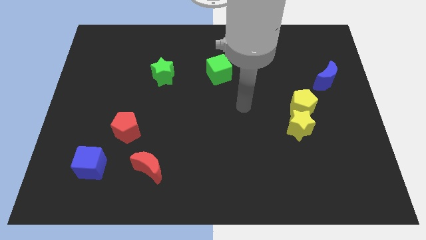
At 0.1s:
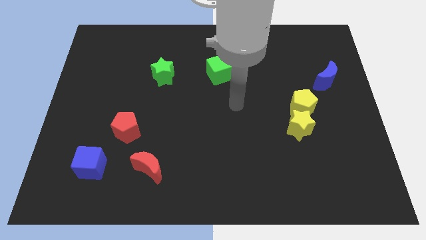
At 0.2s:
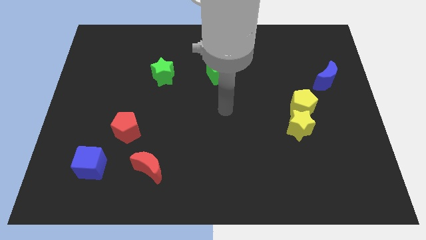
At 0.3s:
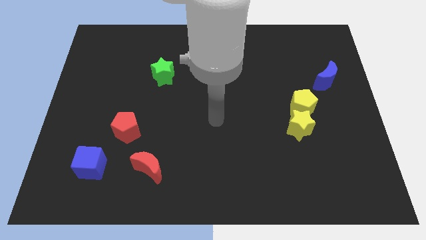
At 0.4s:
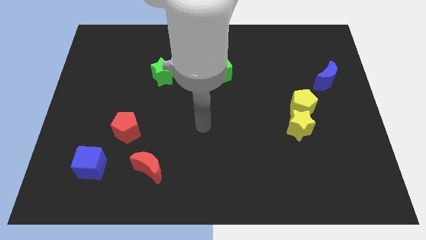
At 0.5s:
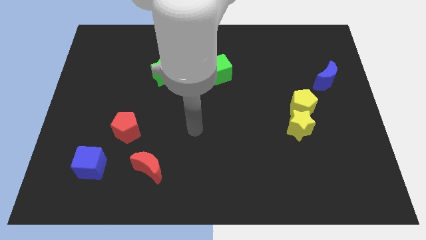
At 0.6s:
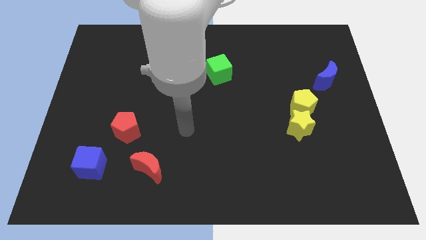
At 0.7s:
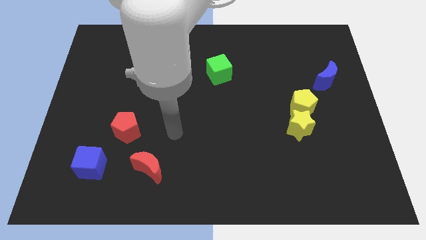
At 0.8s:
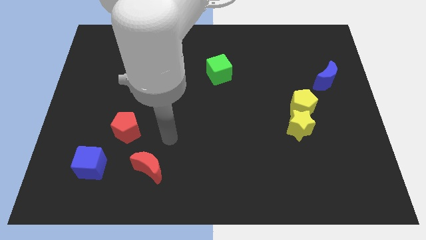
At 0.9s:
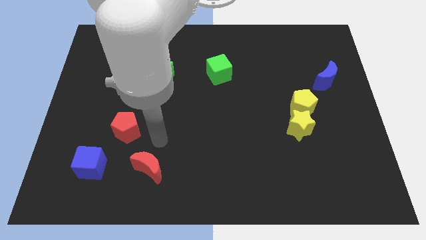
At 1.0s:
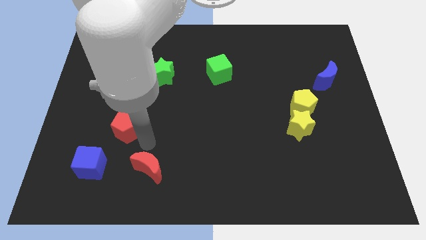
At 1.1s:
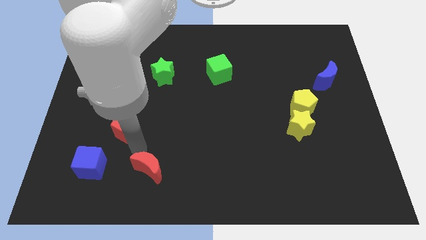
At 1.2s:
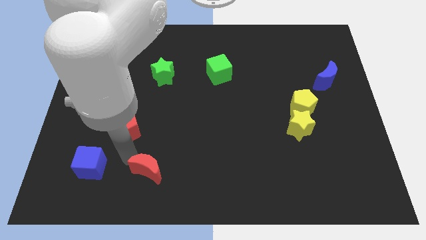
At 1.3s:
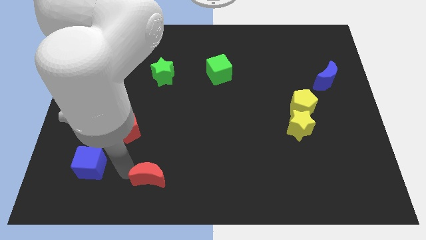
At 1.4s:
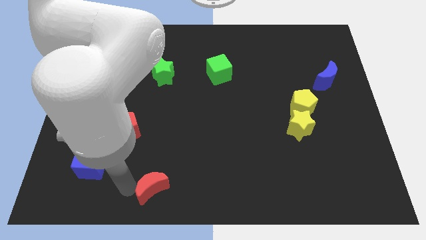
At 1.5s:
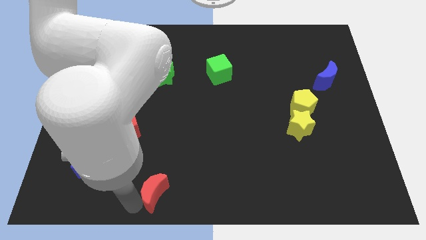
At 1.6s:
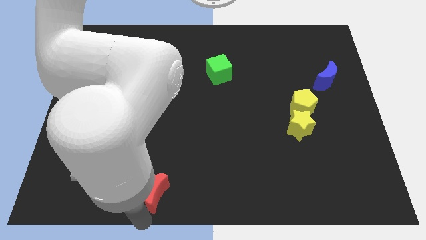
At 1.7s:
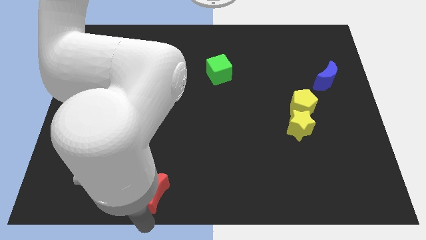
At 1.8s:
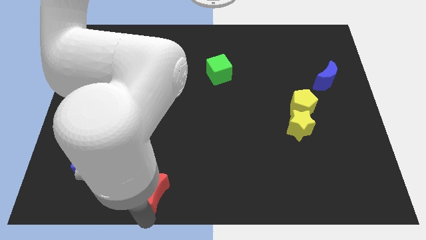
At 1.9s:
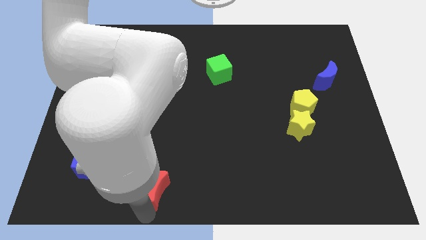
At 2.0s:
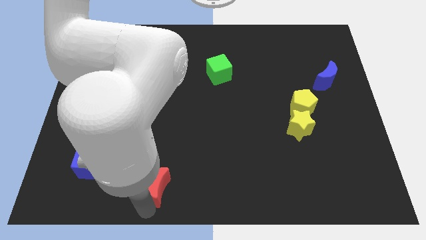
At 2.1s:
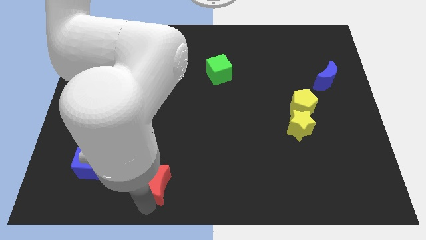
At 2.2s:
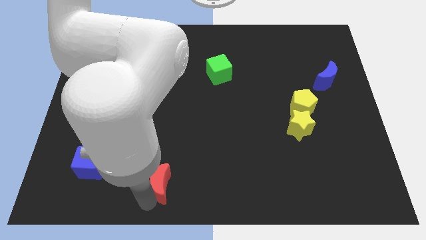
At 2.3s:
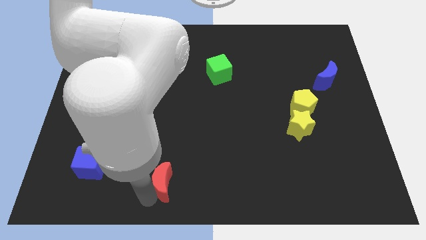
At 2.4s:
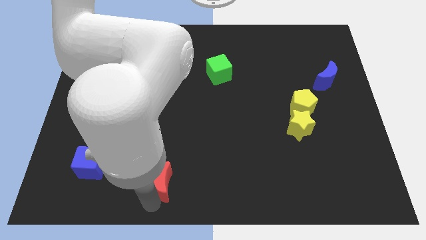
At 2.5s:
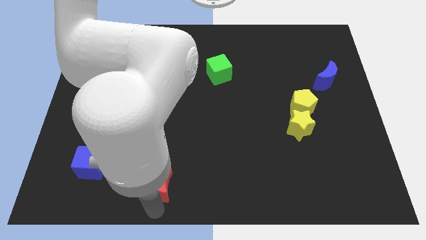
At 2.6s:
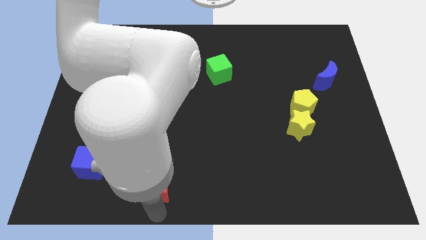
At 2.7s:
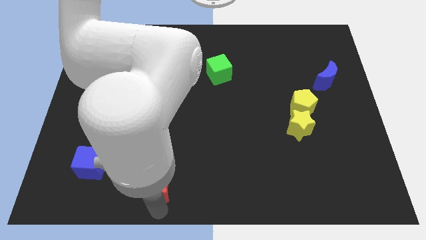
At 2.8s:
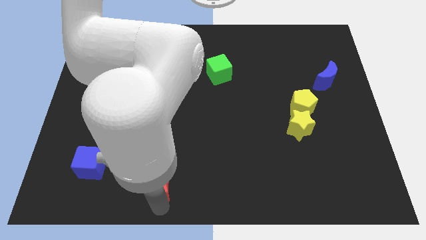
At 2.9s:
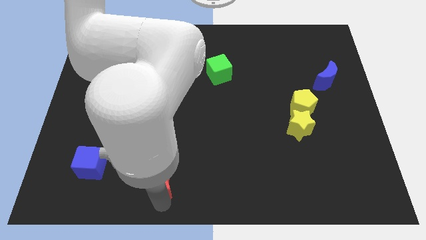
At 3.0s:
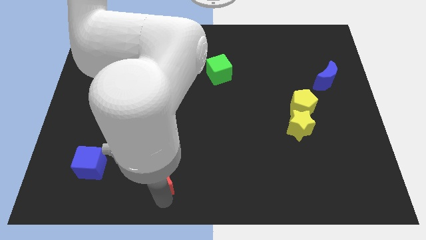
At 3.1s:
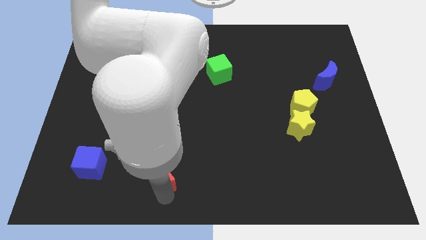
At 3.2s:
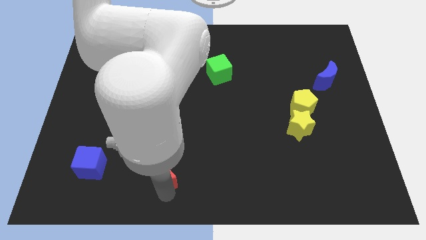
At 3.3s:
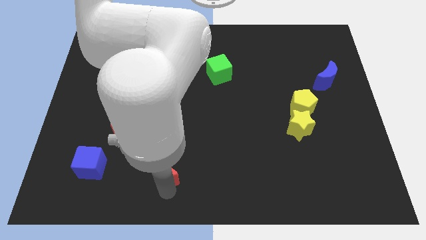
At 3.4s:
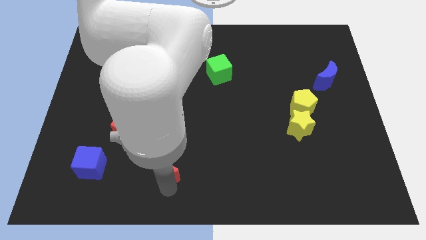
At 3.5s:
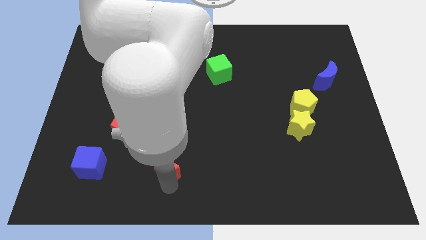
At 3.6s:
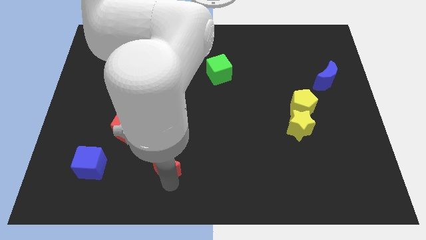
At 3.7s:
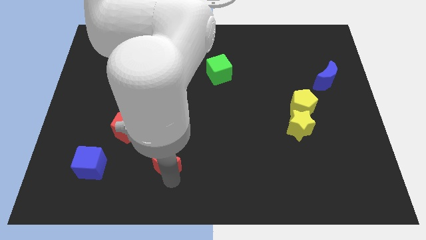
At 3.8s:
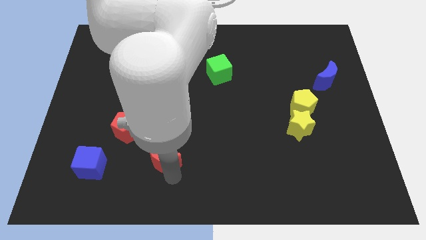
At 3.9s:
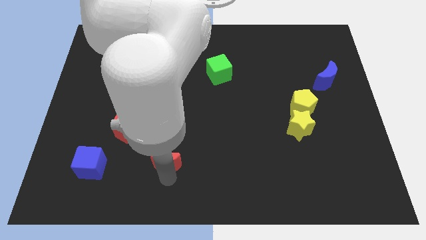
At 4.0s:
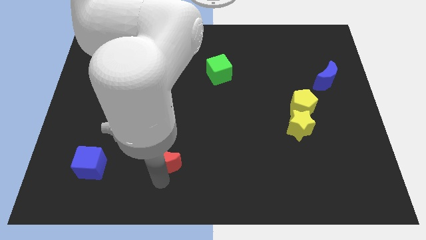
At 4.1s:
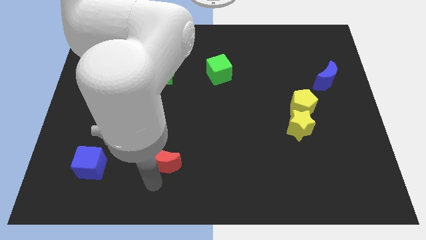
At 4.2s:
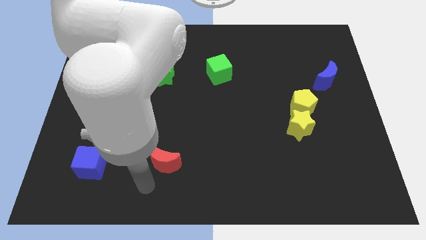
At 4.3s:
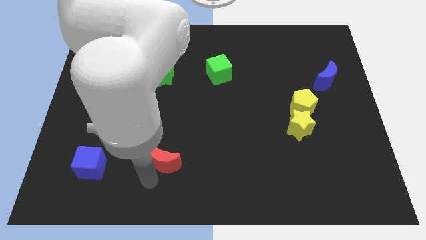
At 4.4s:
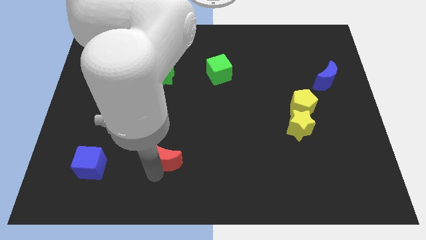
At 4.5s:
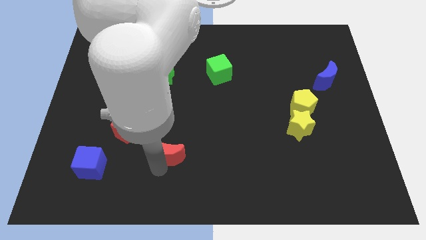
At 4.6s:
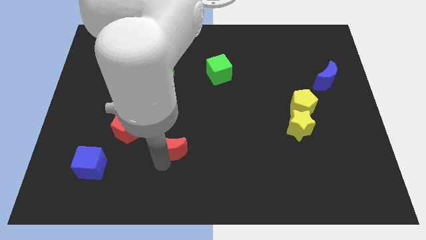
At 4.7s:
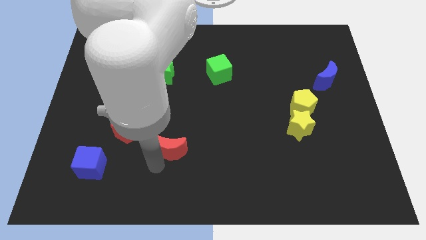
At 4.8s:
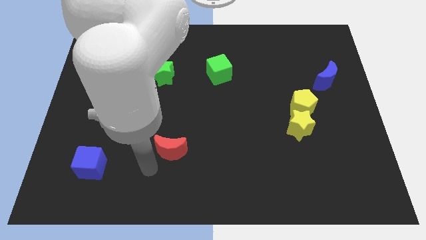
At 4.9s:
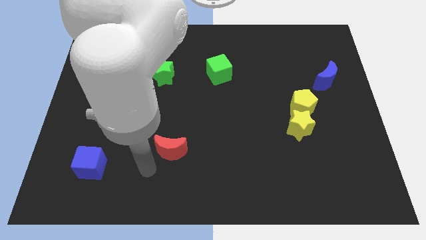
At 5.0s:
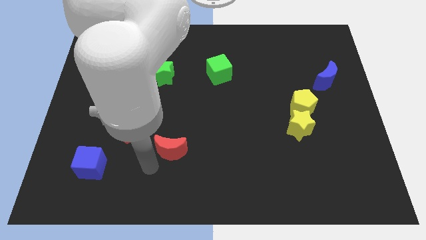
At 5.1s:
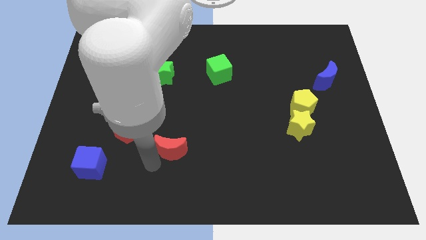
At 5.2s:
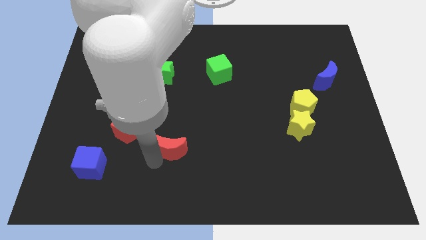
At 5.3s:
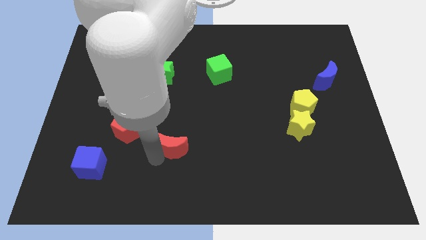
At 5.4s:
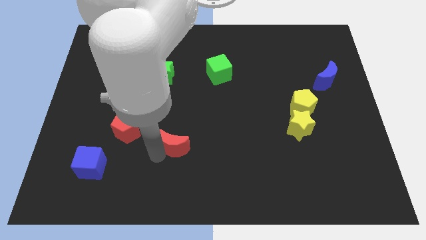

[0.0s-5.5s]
move the red moon diagonally upwards and right somewhat

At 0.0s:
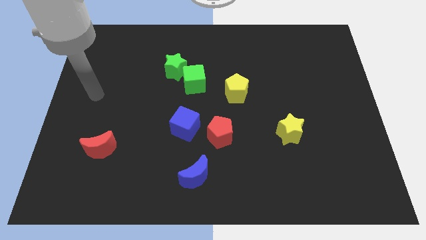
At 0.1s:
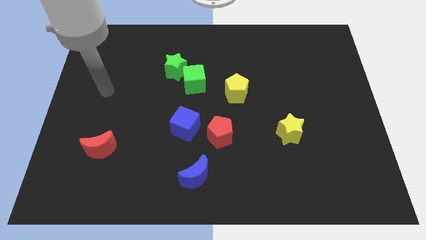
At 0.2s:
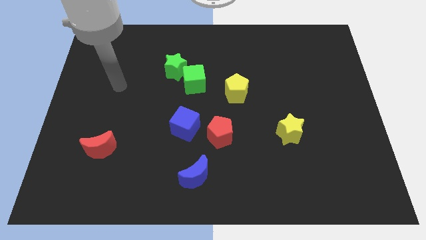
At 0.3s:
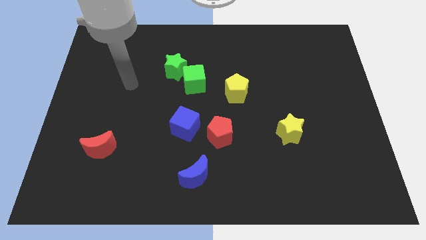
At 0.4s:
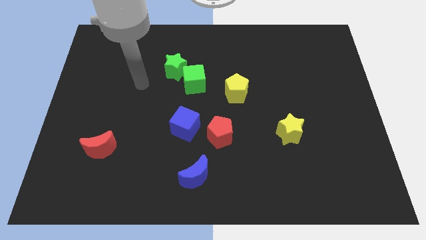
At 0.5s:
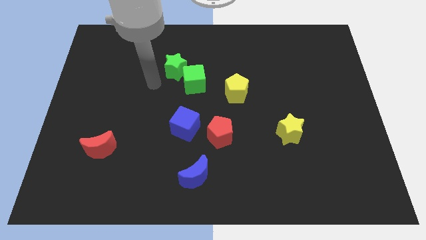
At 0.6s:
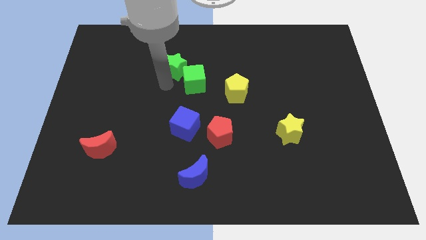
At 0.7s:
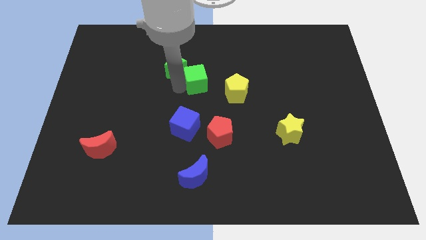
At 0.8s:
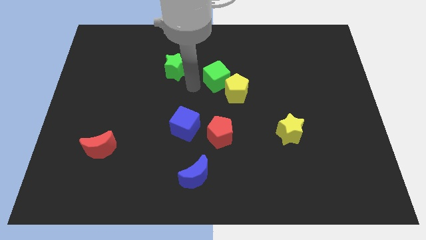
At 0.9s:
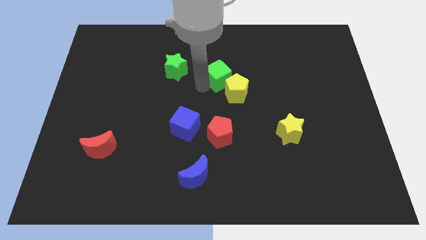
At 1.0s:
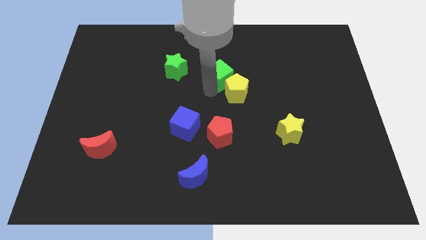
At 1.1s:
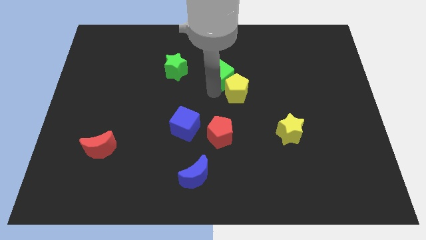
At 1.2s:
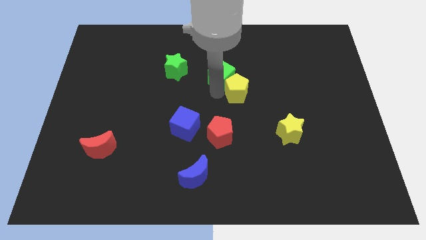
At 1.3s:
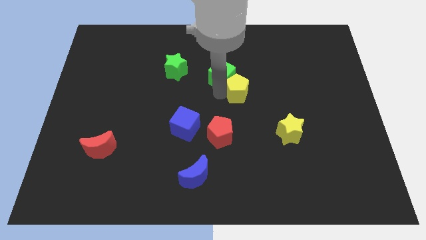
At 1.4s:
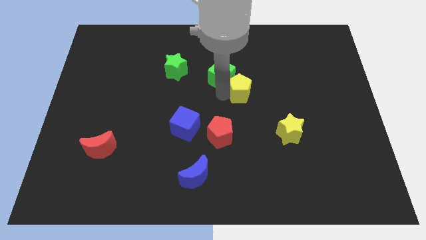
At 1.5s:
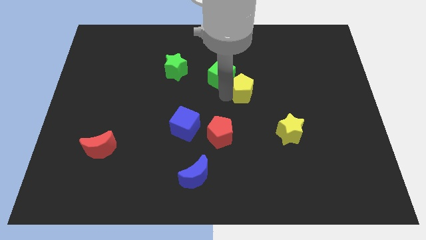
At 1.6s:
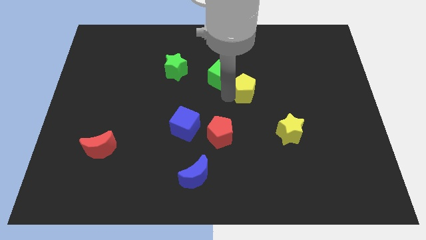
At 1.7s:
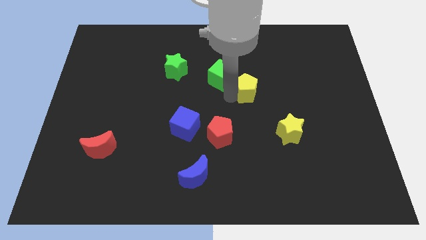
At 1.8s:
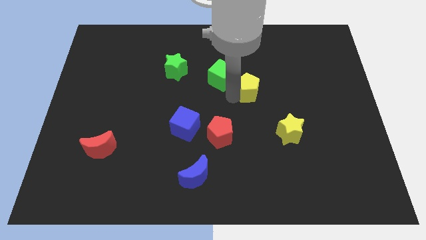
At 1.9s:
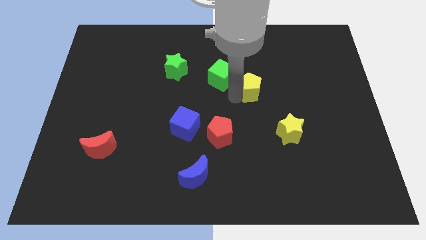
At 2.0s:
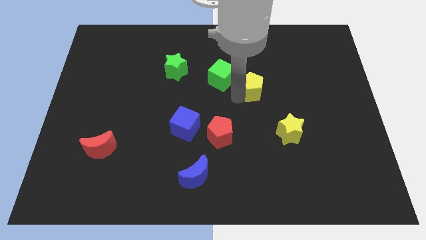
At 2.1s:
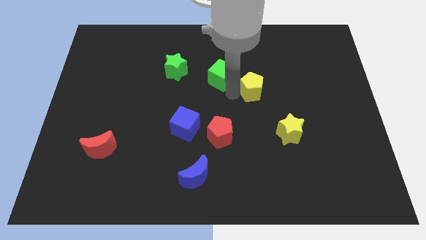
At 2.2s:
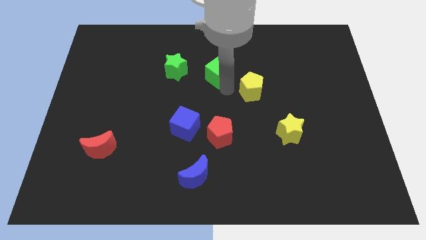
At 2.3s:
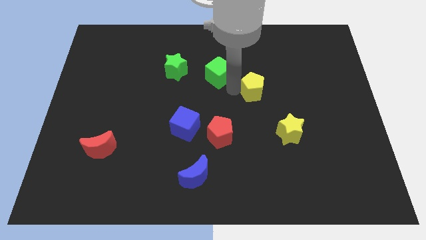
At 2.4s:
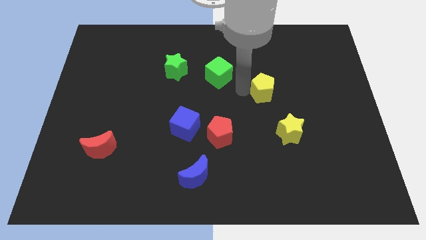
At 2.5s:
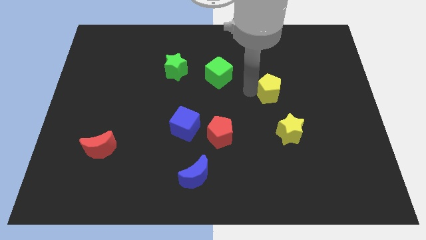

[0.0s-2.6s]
slightly move the yellow pentagon right

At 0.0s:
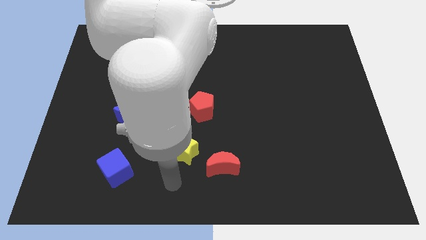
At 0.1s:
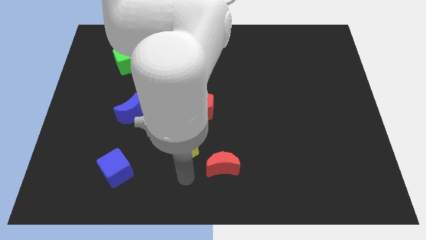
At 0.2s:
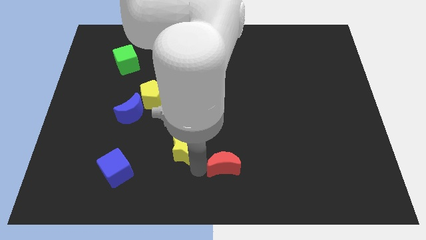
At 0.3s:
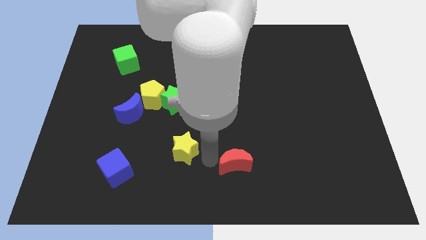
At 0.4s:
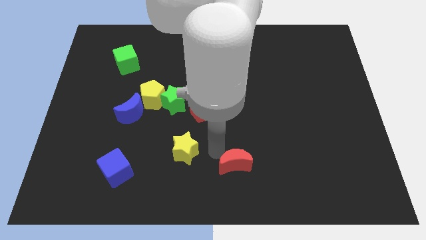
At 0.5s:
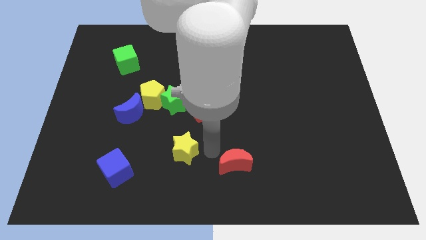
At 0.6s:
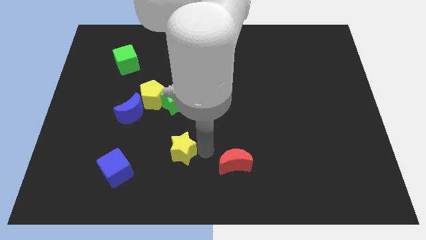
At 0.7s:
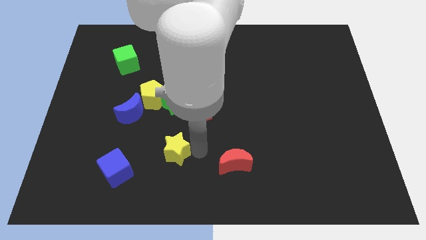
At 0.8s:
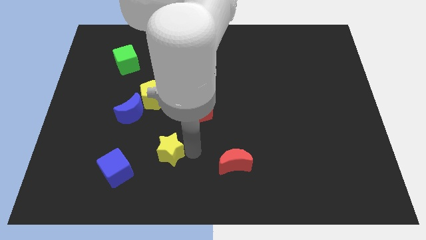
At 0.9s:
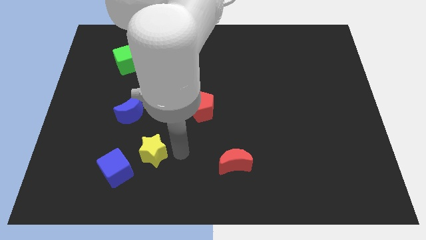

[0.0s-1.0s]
slide the yellow star slightly to the left
